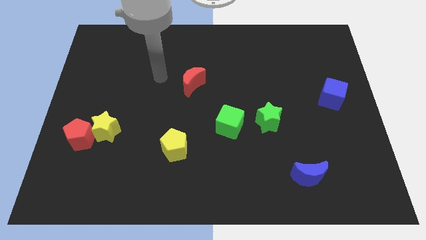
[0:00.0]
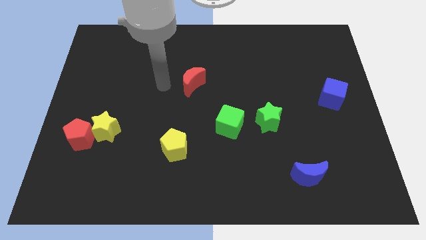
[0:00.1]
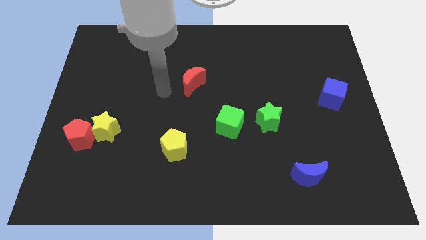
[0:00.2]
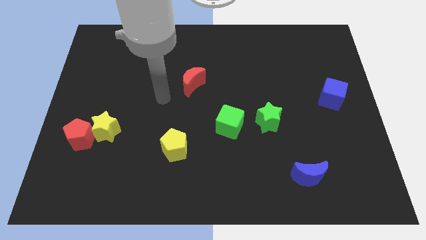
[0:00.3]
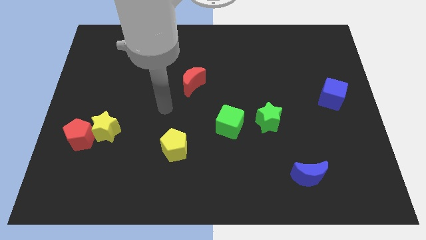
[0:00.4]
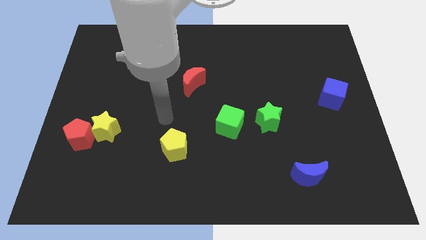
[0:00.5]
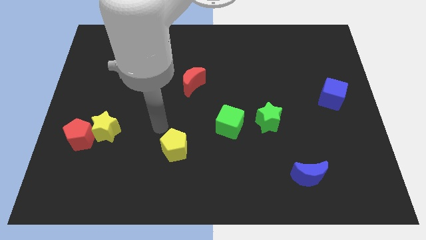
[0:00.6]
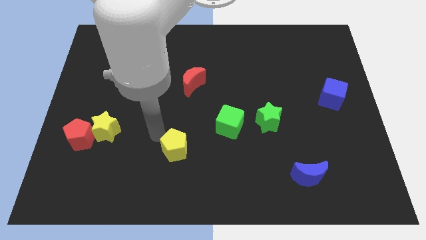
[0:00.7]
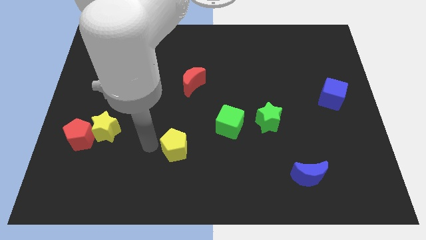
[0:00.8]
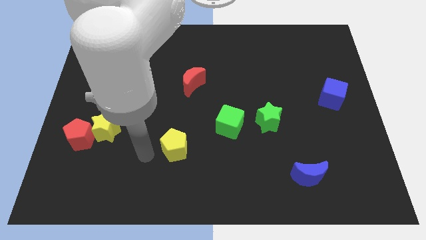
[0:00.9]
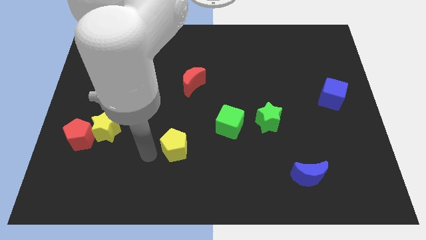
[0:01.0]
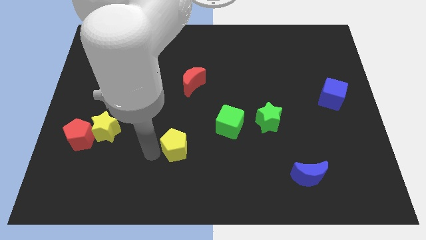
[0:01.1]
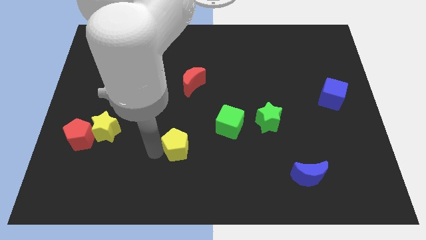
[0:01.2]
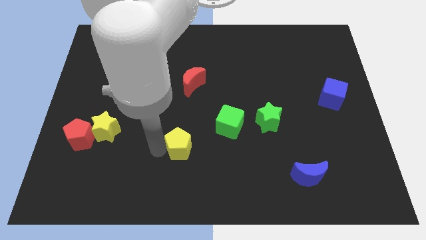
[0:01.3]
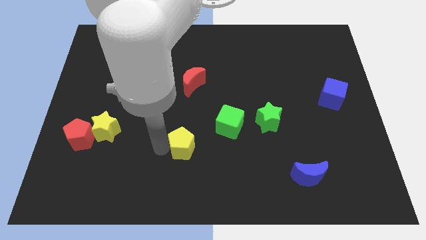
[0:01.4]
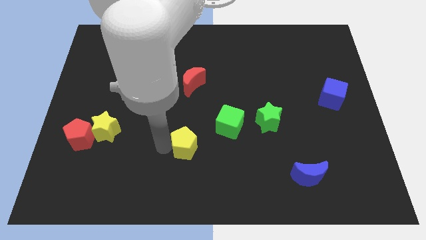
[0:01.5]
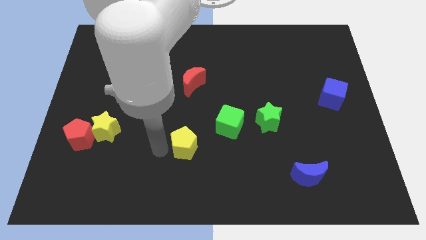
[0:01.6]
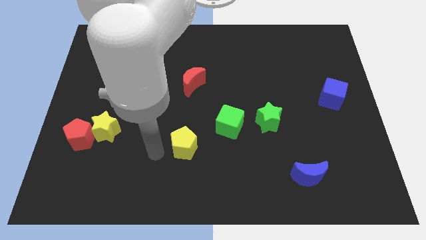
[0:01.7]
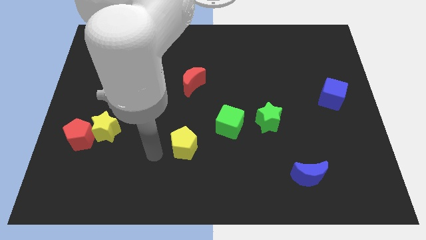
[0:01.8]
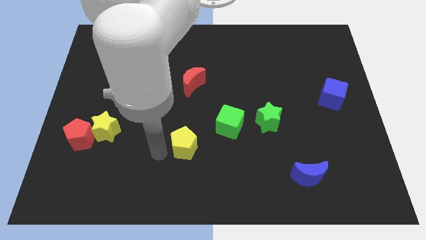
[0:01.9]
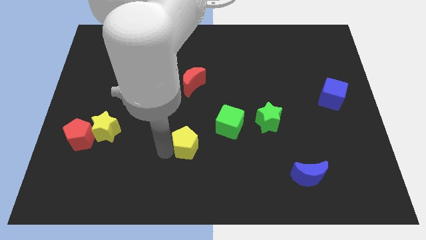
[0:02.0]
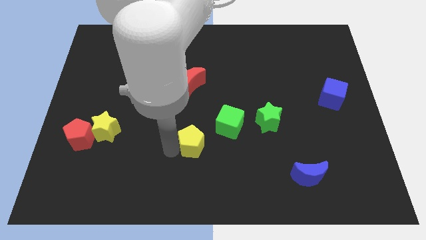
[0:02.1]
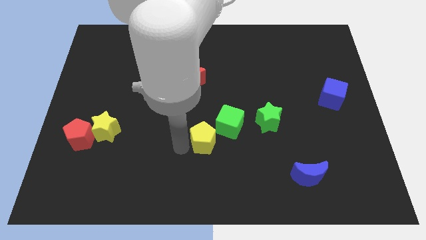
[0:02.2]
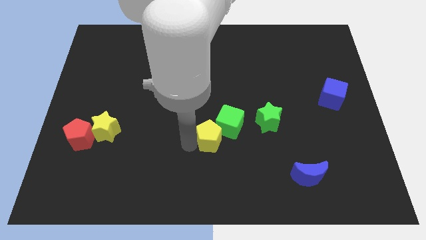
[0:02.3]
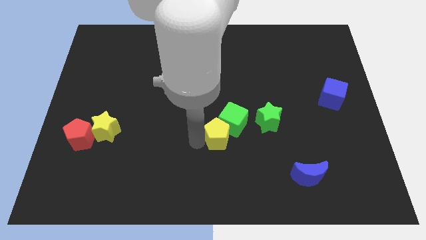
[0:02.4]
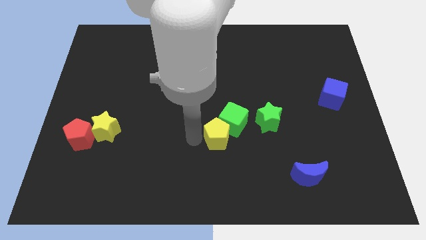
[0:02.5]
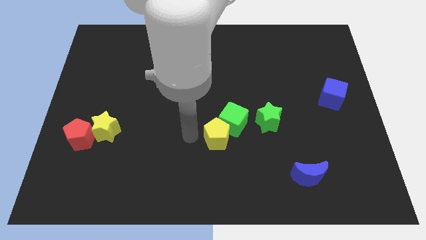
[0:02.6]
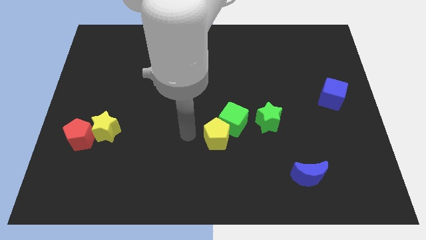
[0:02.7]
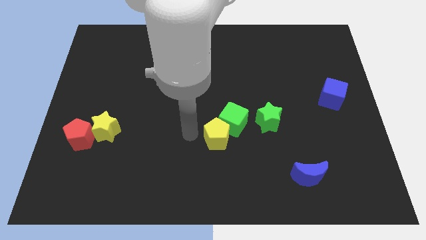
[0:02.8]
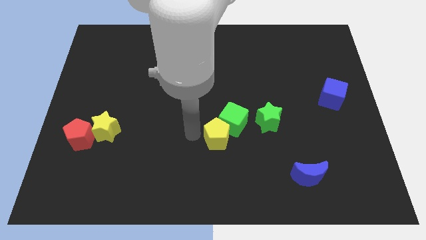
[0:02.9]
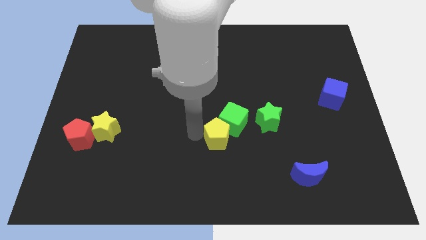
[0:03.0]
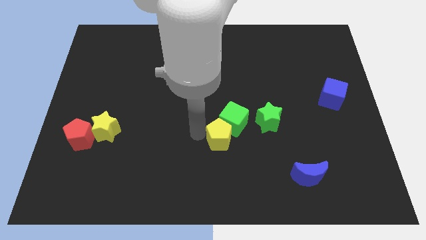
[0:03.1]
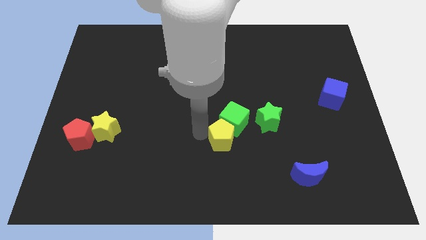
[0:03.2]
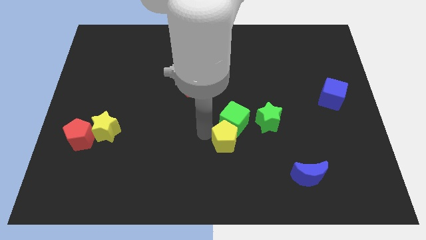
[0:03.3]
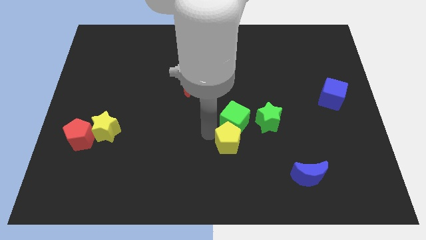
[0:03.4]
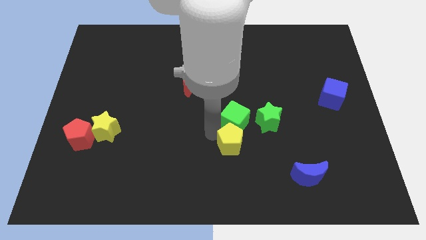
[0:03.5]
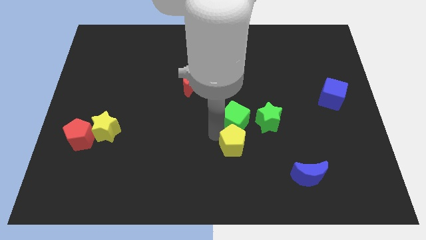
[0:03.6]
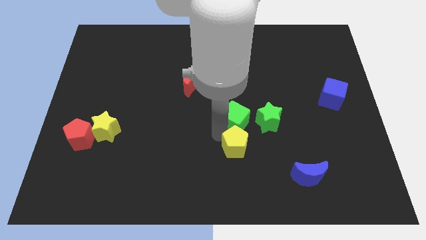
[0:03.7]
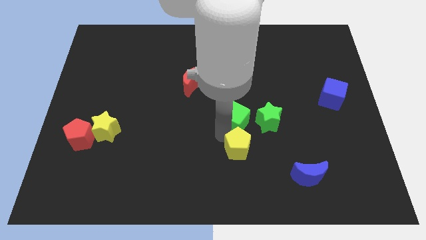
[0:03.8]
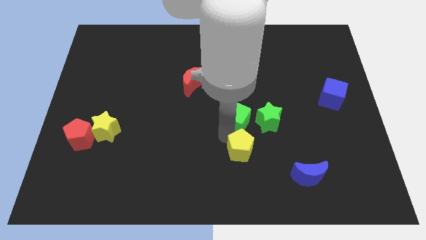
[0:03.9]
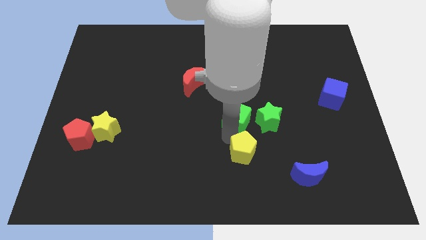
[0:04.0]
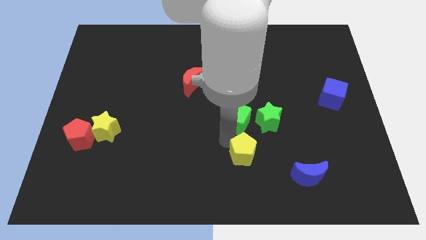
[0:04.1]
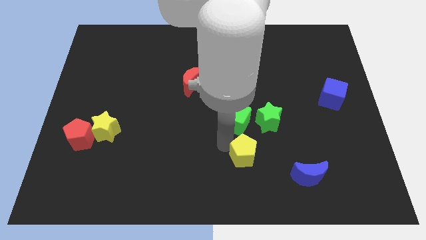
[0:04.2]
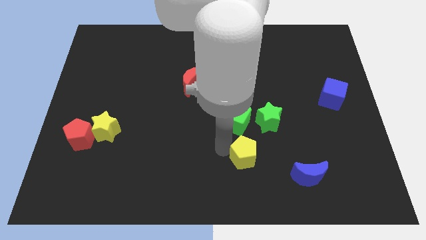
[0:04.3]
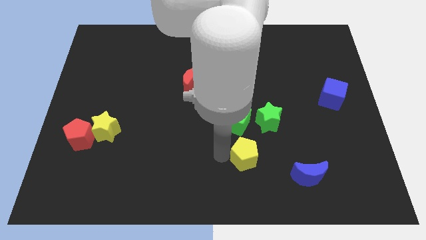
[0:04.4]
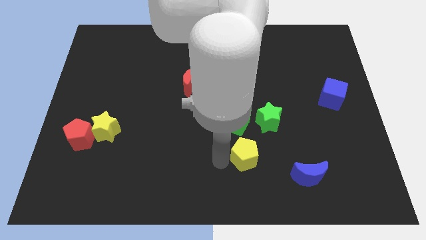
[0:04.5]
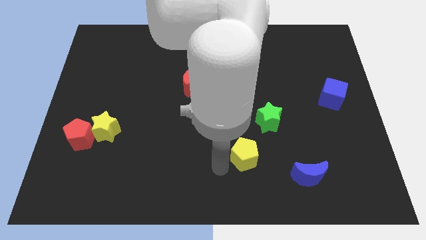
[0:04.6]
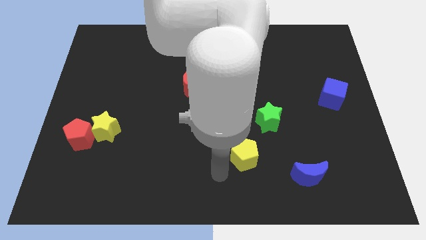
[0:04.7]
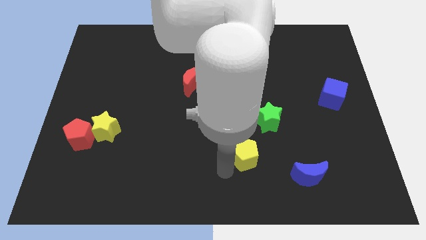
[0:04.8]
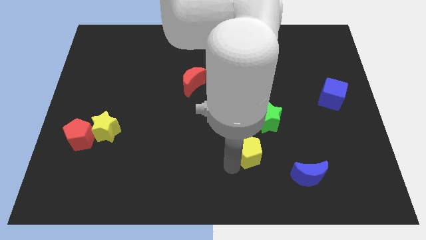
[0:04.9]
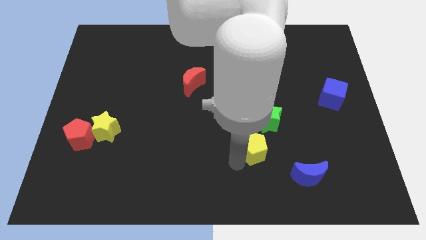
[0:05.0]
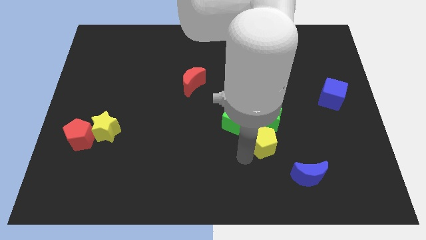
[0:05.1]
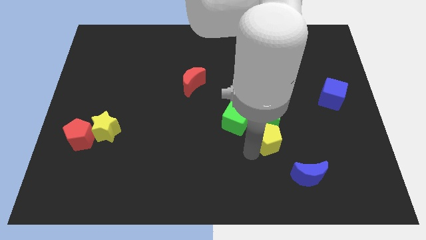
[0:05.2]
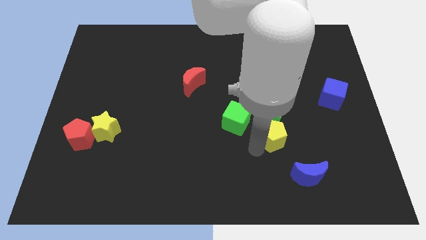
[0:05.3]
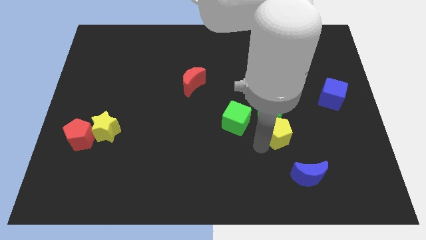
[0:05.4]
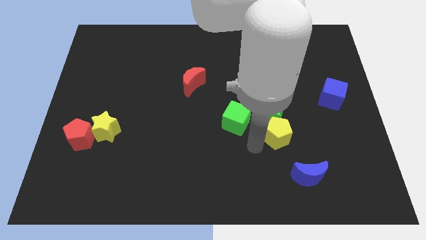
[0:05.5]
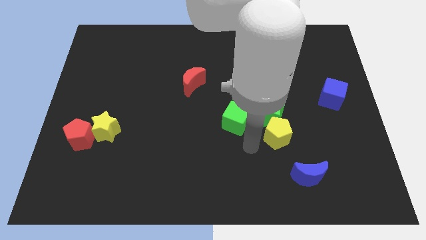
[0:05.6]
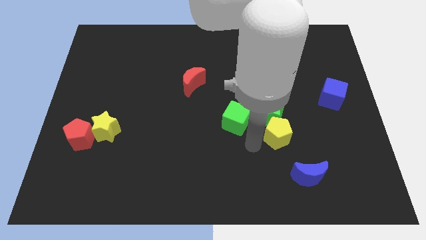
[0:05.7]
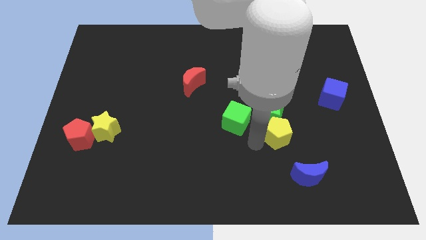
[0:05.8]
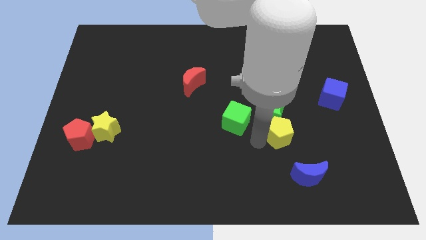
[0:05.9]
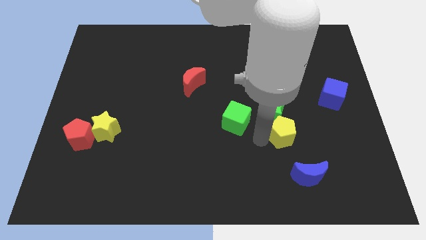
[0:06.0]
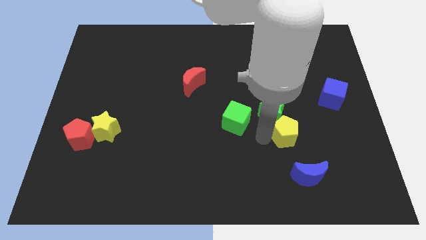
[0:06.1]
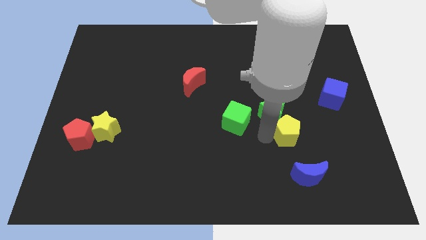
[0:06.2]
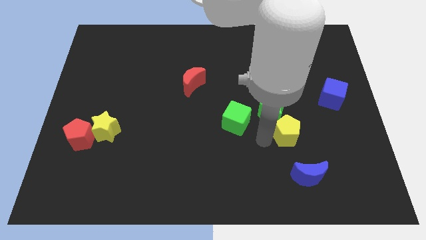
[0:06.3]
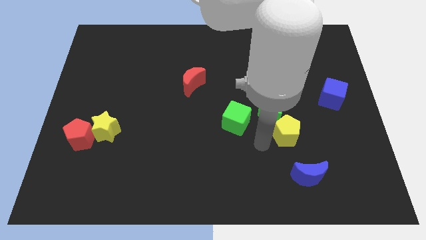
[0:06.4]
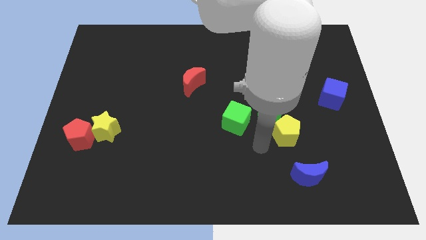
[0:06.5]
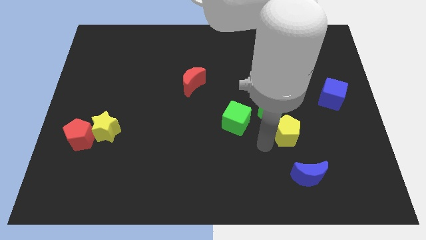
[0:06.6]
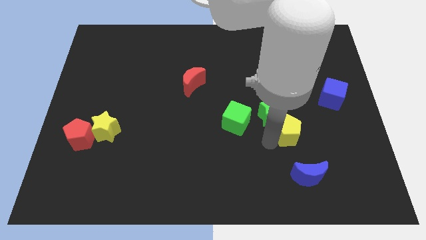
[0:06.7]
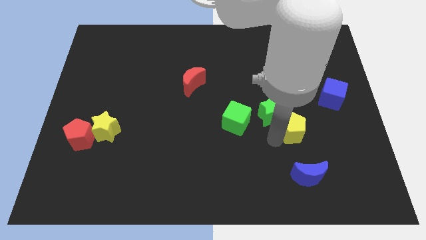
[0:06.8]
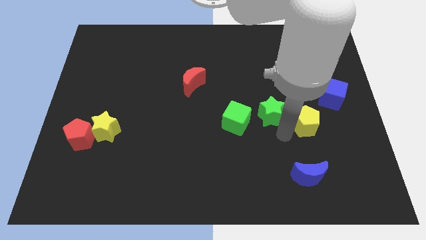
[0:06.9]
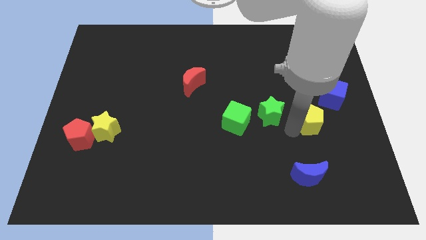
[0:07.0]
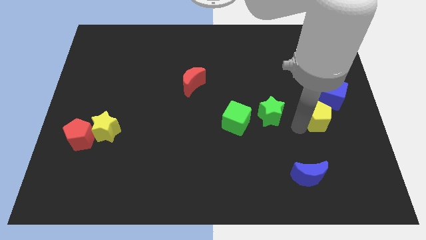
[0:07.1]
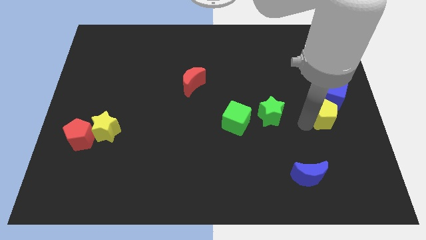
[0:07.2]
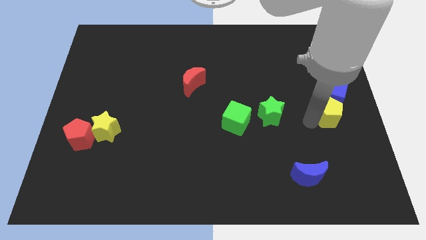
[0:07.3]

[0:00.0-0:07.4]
move the yellow pentagon to the right side of the board
